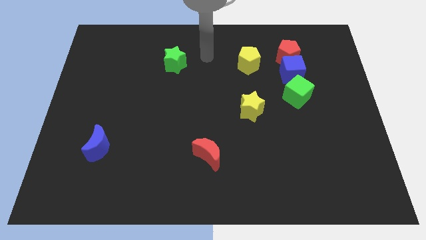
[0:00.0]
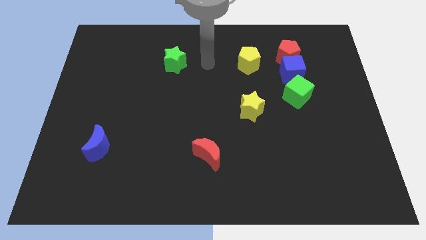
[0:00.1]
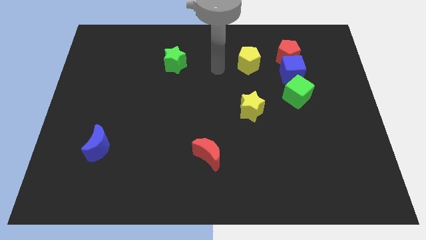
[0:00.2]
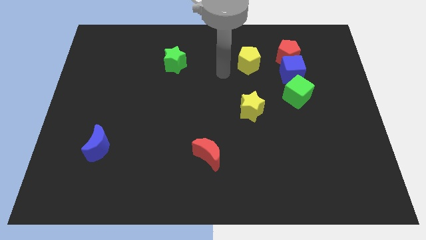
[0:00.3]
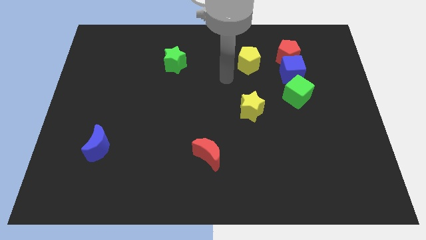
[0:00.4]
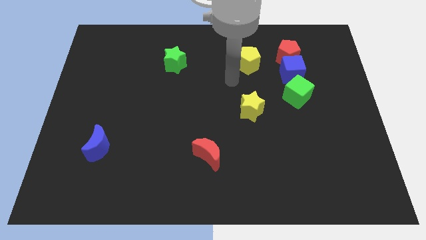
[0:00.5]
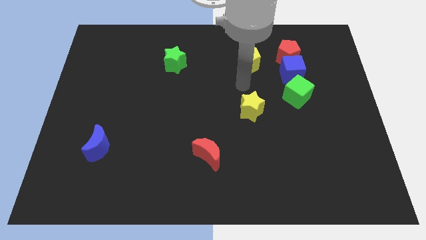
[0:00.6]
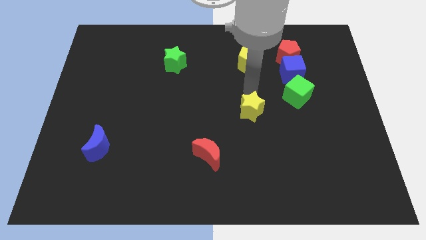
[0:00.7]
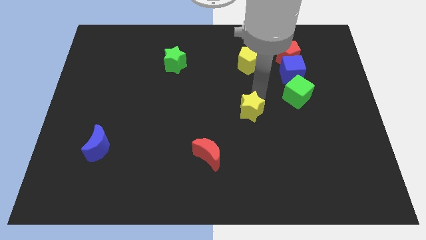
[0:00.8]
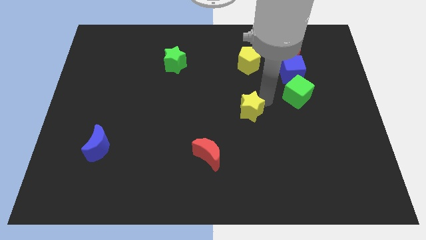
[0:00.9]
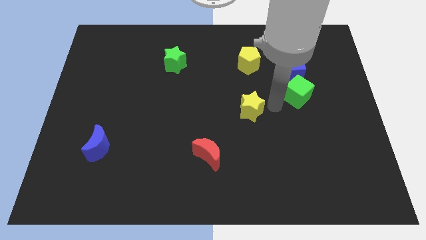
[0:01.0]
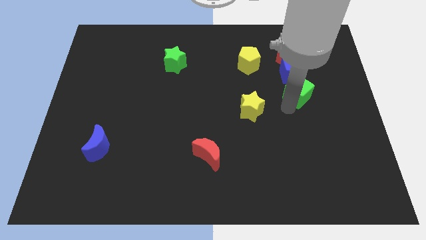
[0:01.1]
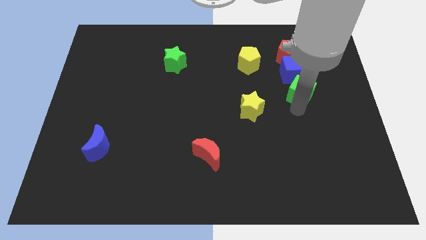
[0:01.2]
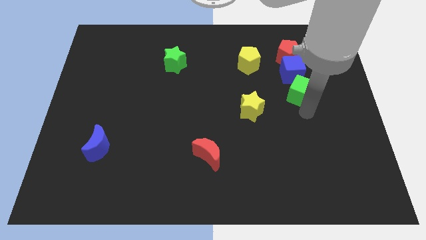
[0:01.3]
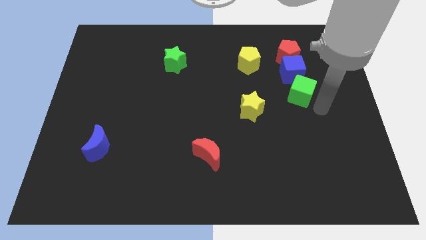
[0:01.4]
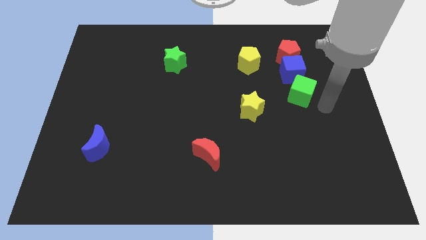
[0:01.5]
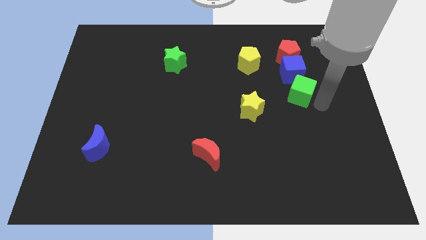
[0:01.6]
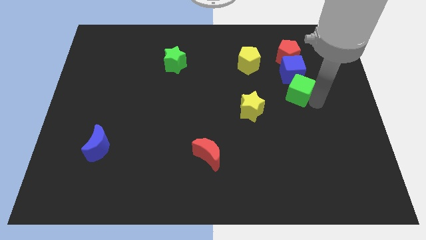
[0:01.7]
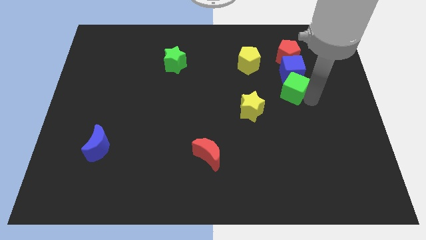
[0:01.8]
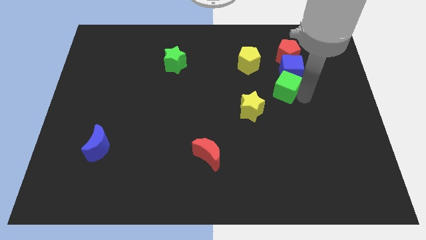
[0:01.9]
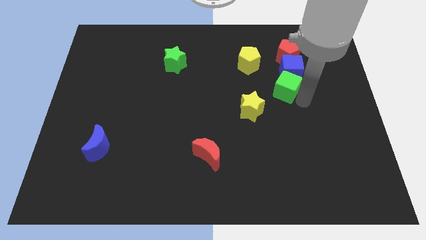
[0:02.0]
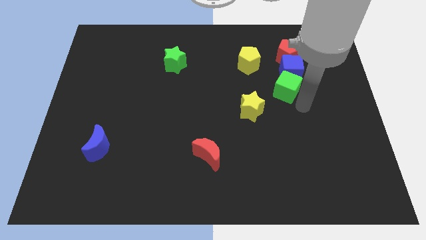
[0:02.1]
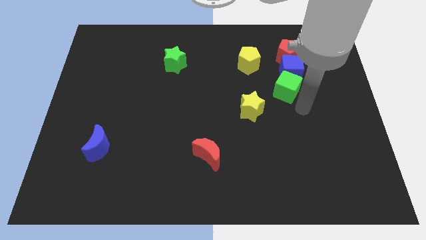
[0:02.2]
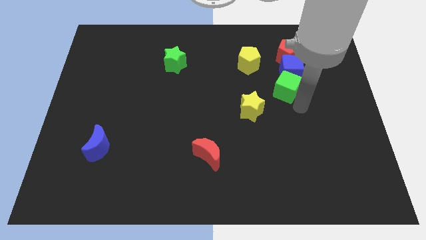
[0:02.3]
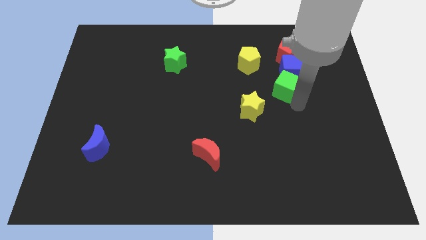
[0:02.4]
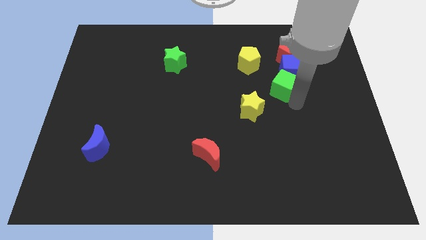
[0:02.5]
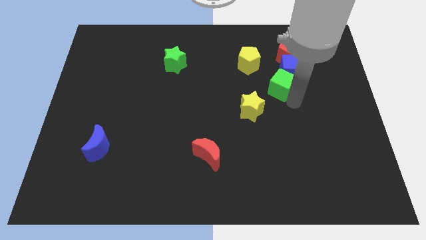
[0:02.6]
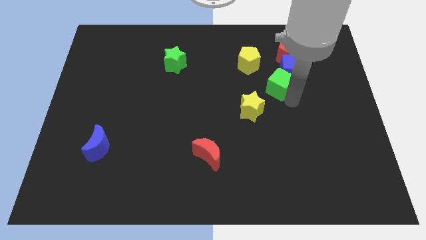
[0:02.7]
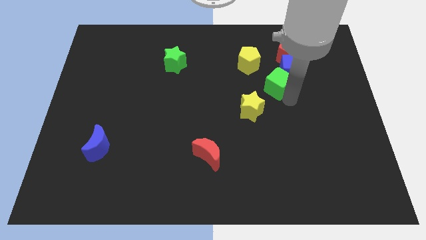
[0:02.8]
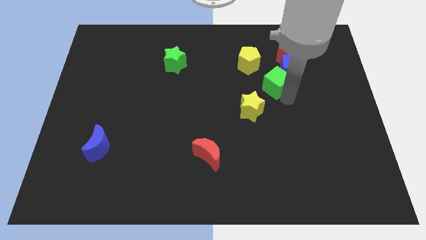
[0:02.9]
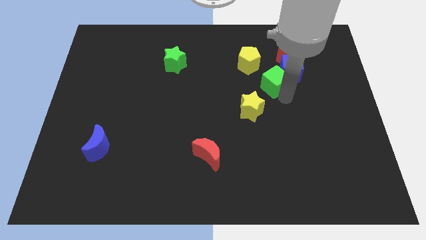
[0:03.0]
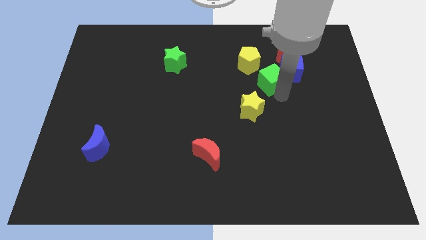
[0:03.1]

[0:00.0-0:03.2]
move the green cube upwards and left diagonally a little

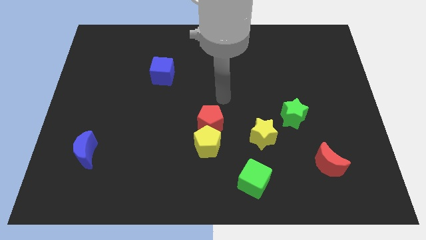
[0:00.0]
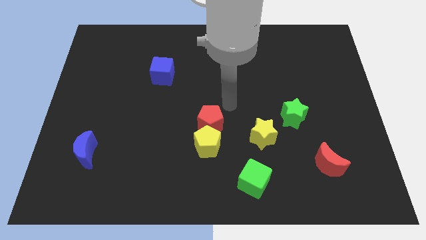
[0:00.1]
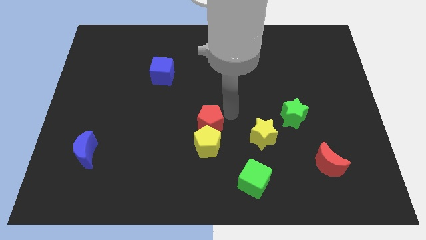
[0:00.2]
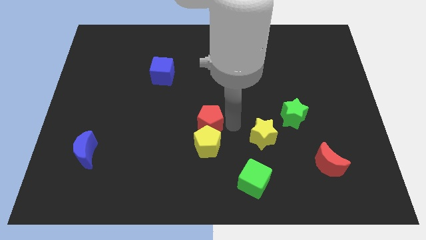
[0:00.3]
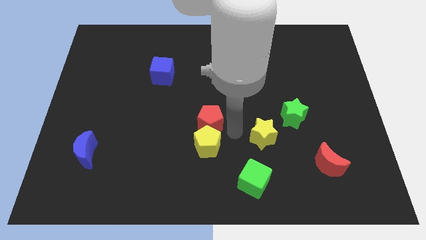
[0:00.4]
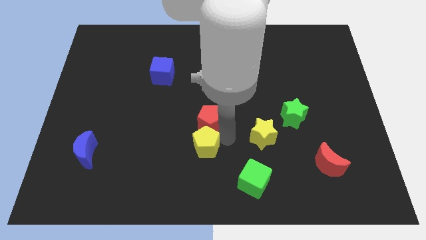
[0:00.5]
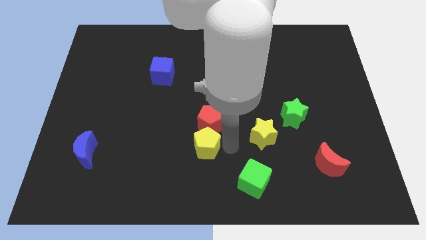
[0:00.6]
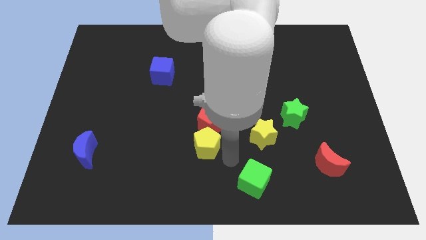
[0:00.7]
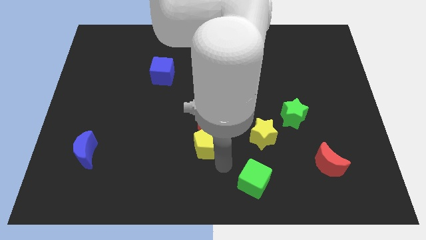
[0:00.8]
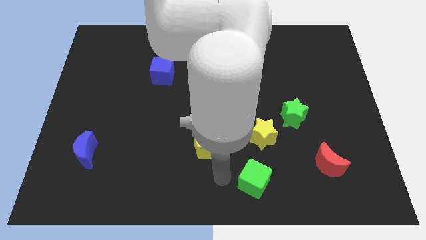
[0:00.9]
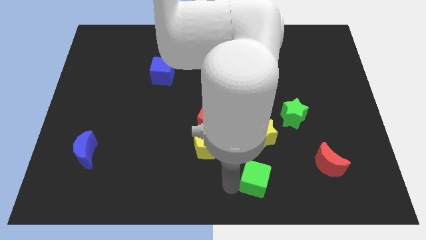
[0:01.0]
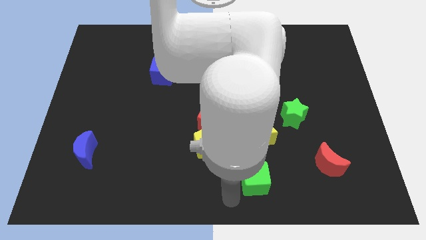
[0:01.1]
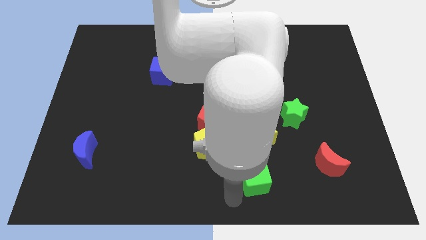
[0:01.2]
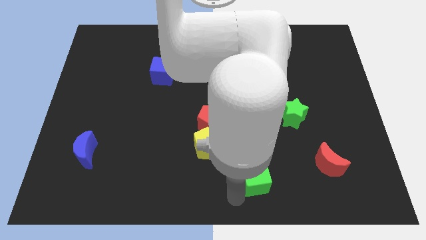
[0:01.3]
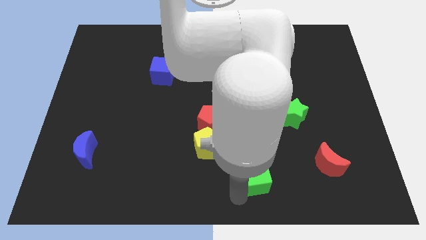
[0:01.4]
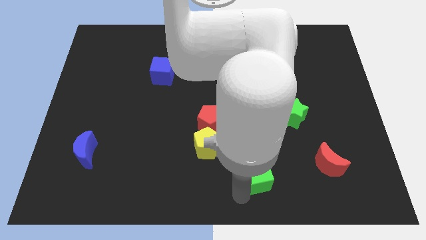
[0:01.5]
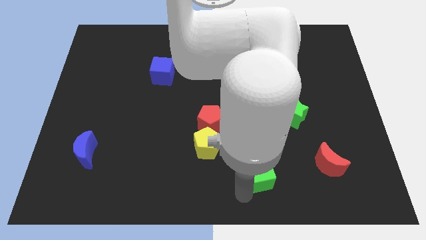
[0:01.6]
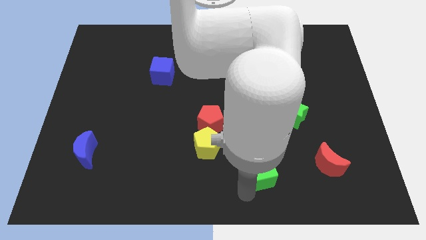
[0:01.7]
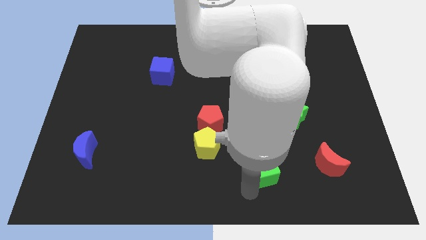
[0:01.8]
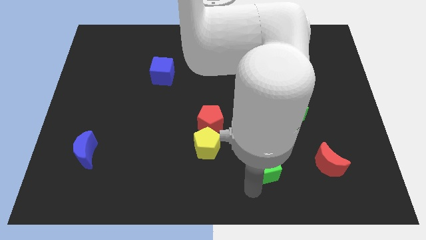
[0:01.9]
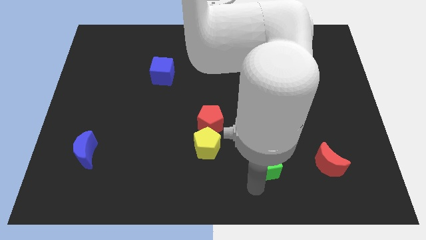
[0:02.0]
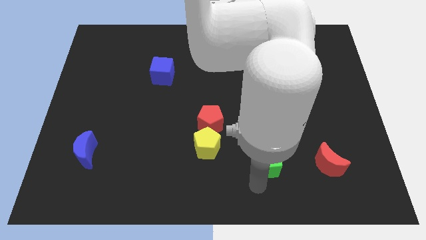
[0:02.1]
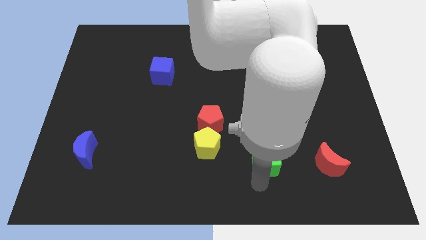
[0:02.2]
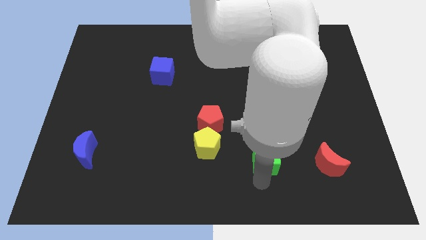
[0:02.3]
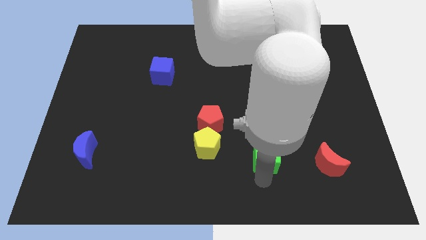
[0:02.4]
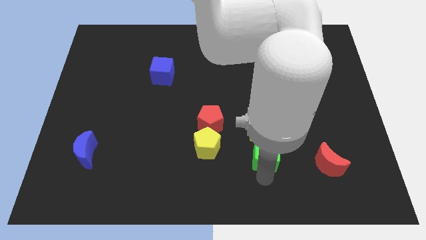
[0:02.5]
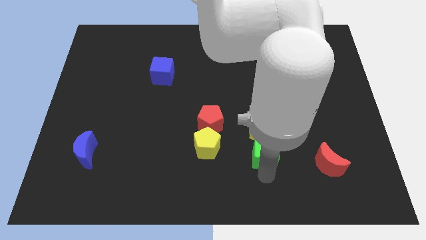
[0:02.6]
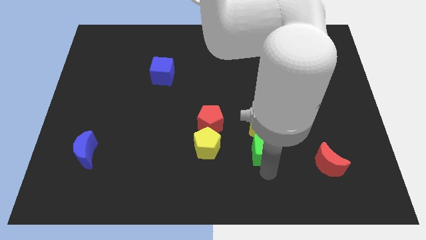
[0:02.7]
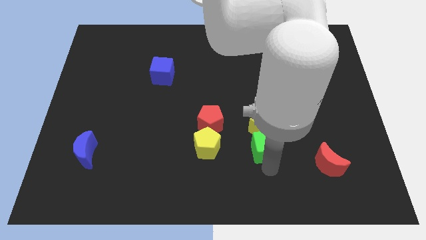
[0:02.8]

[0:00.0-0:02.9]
move the green cube up and to the right slightly

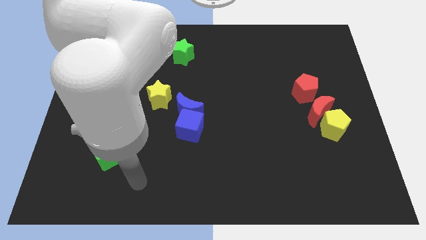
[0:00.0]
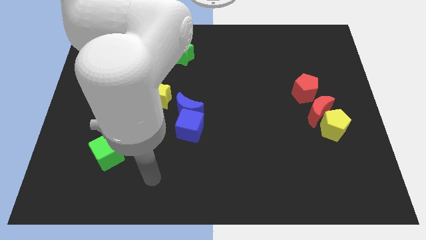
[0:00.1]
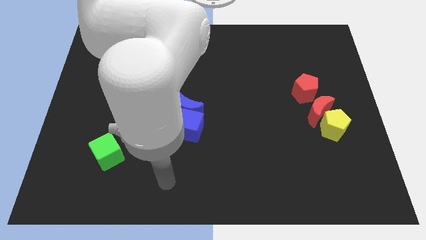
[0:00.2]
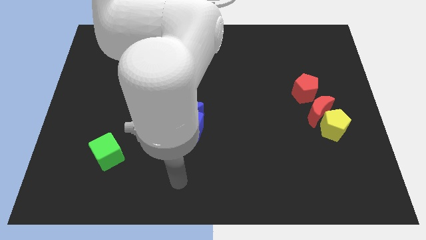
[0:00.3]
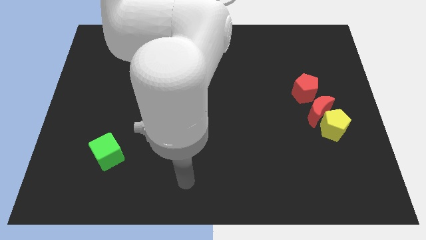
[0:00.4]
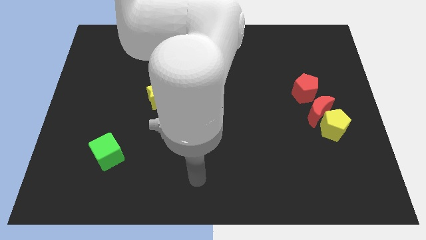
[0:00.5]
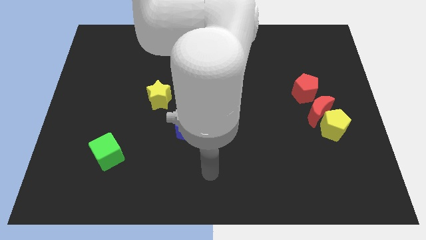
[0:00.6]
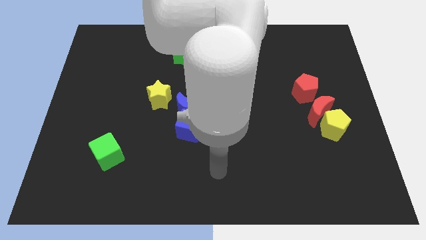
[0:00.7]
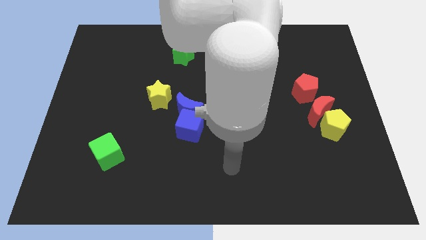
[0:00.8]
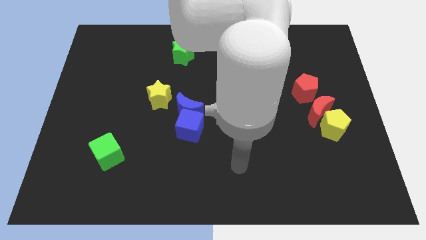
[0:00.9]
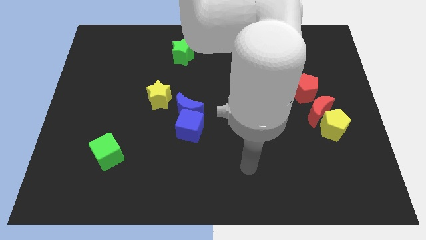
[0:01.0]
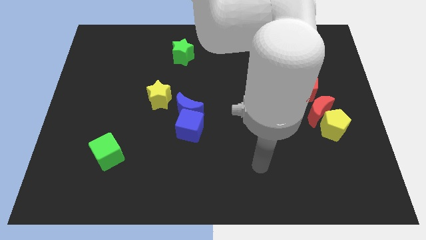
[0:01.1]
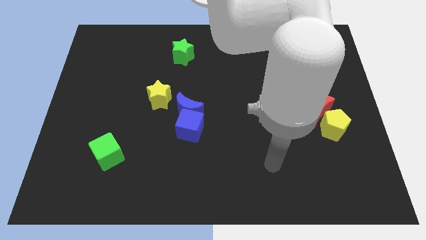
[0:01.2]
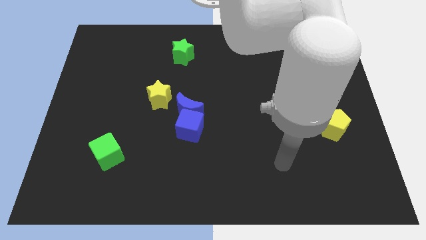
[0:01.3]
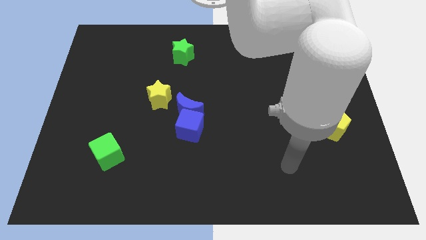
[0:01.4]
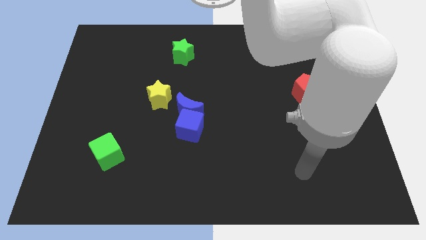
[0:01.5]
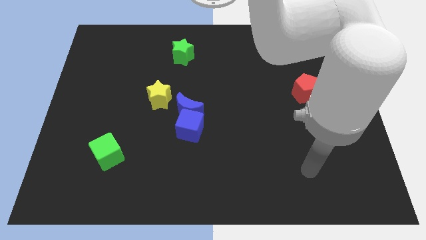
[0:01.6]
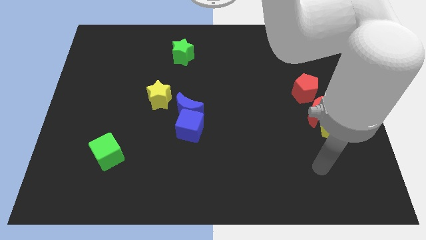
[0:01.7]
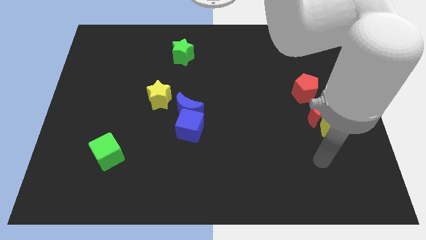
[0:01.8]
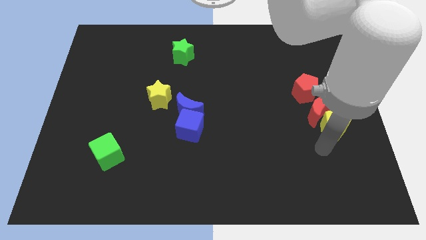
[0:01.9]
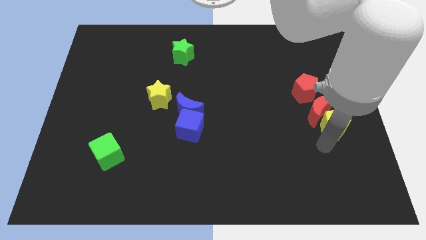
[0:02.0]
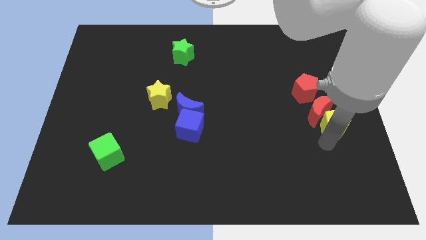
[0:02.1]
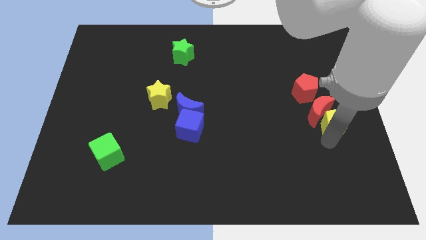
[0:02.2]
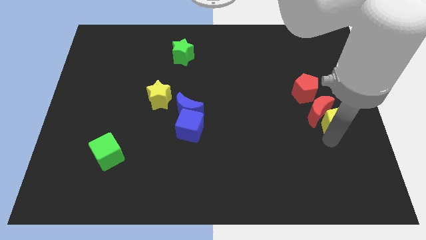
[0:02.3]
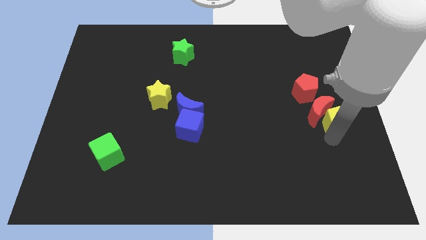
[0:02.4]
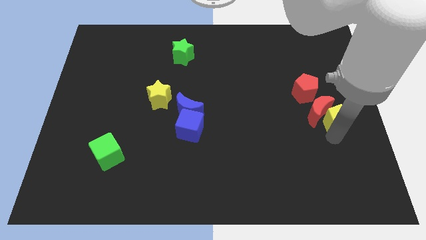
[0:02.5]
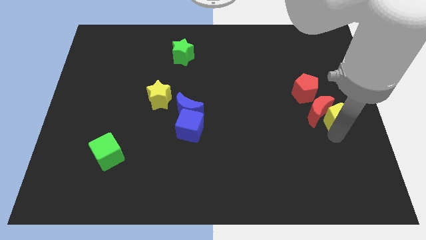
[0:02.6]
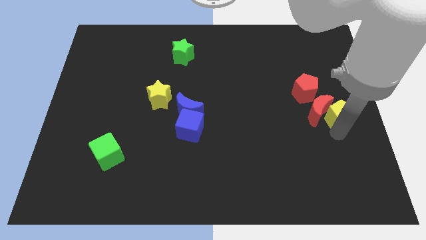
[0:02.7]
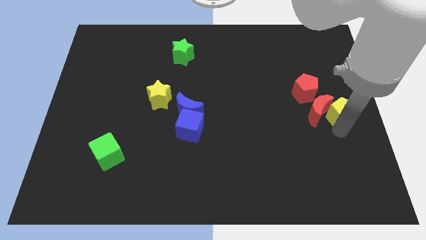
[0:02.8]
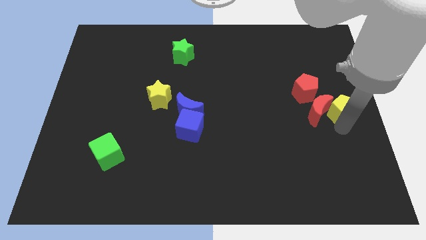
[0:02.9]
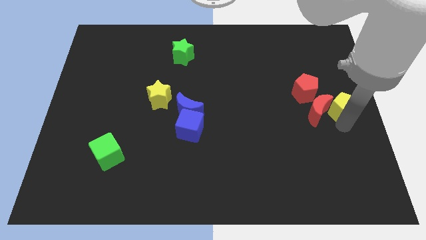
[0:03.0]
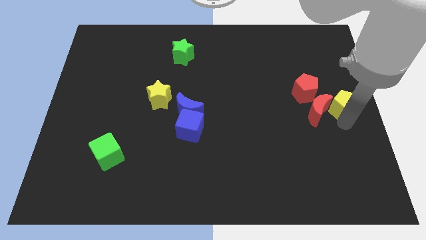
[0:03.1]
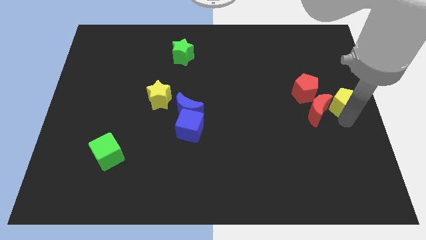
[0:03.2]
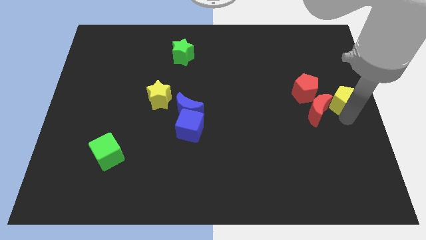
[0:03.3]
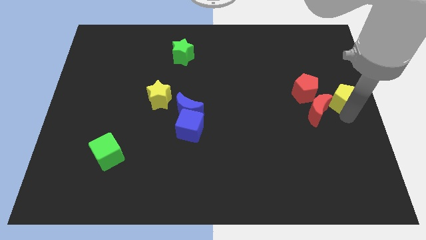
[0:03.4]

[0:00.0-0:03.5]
slide the yellow pentagon a little upwards
